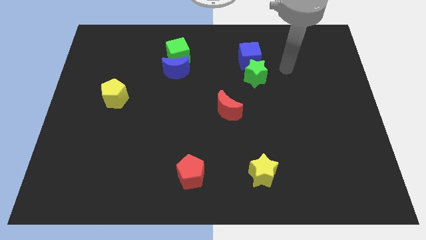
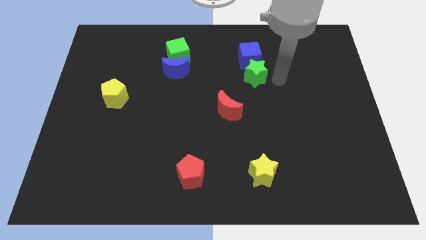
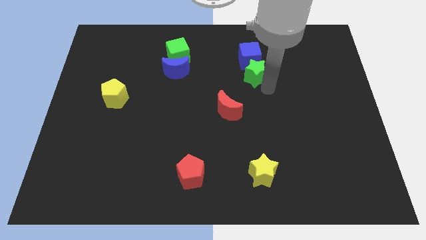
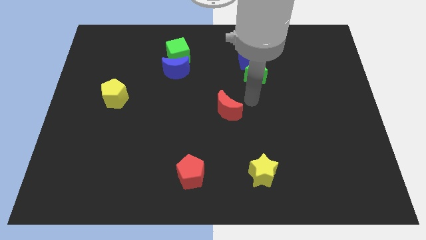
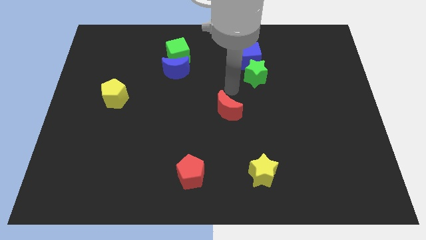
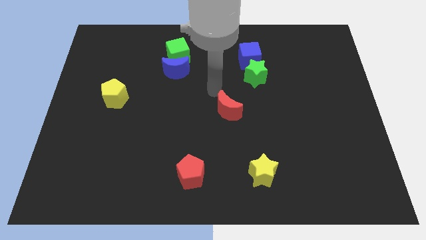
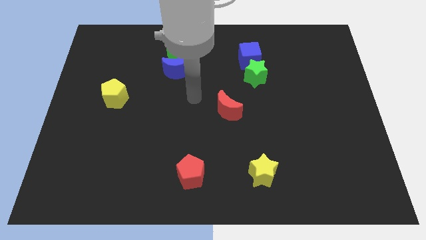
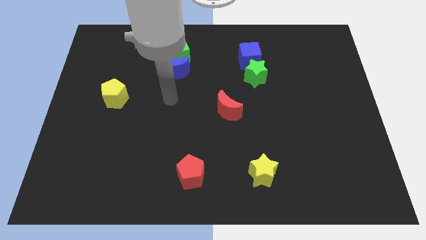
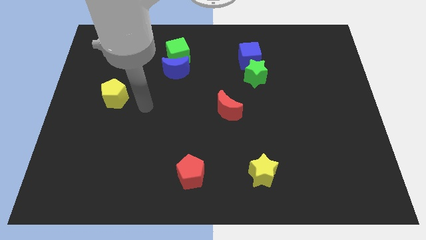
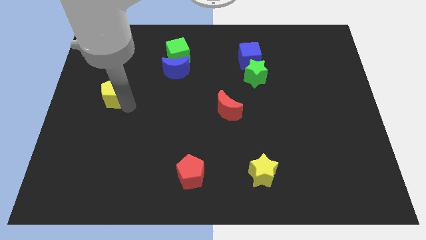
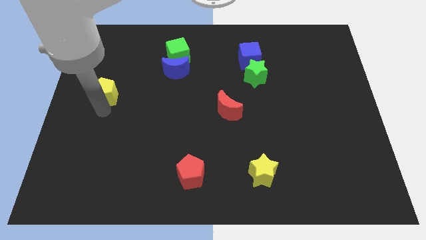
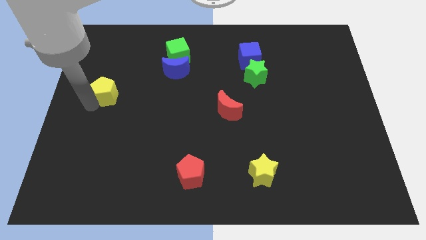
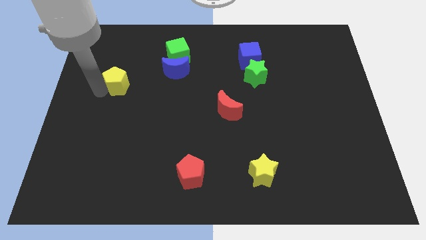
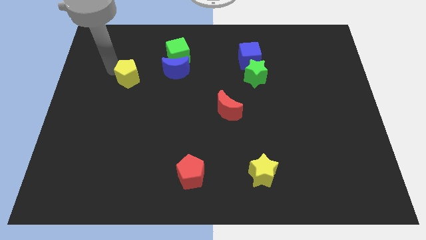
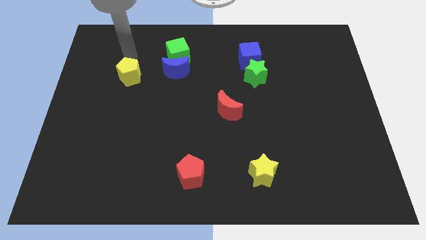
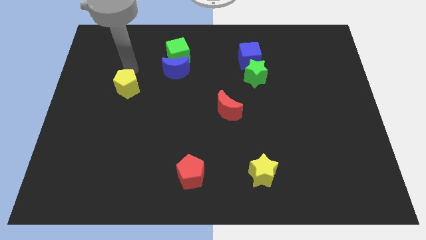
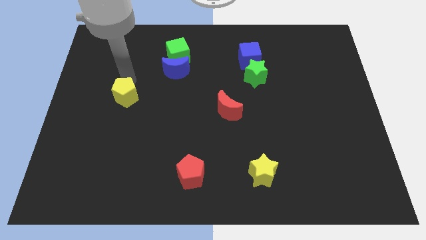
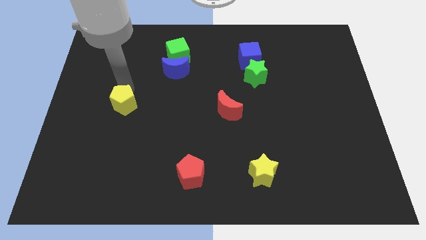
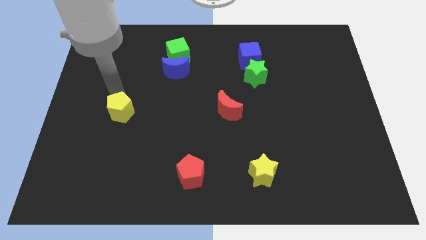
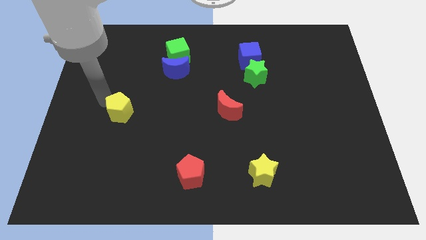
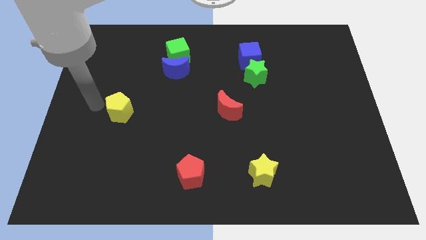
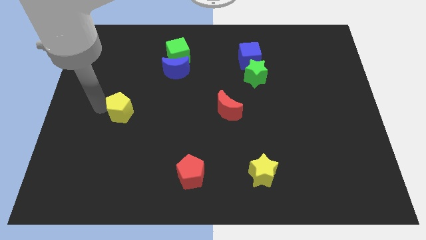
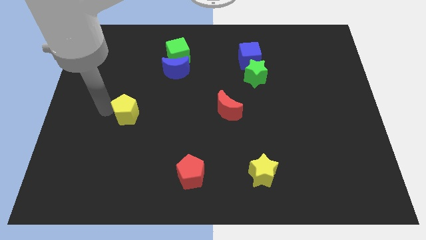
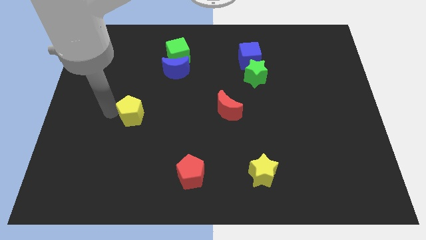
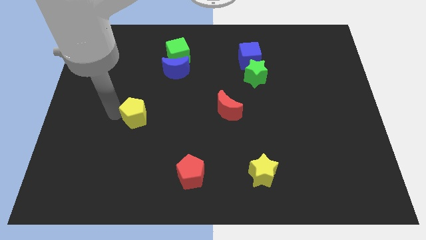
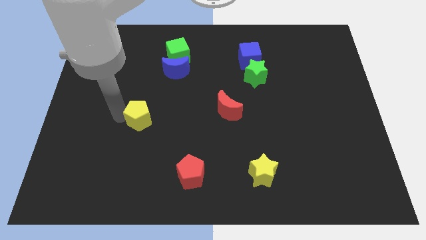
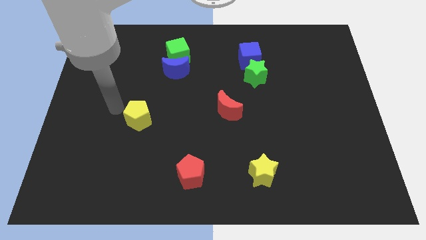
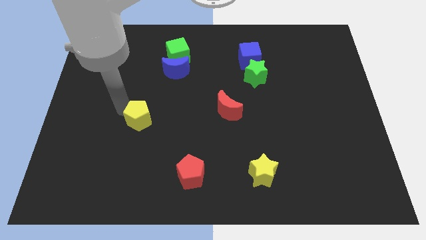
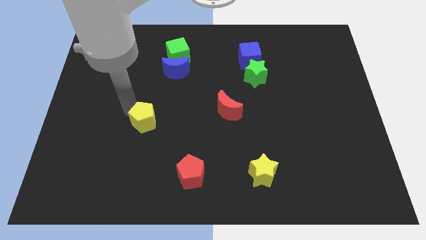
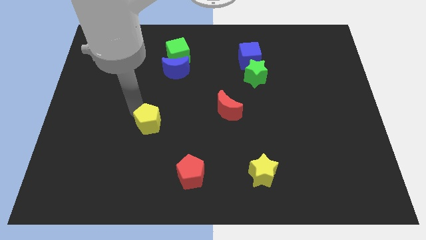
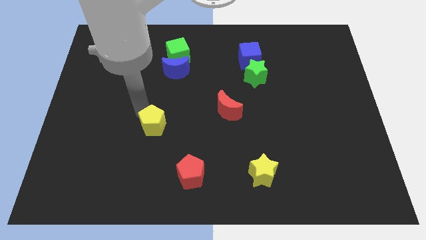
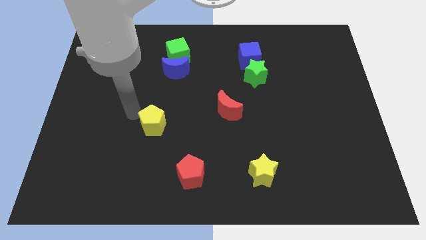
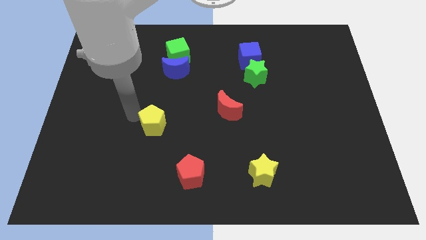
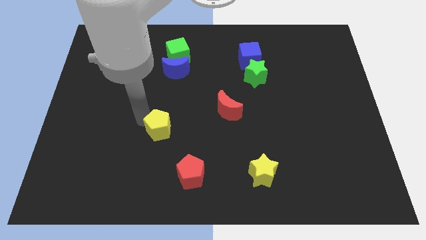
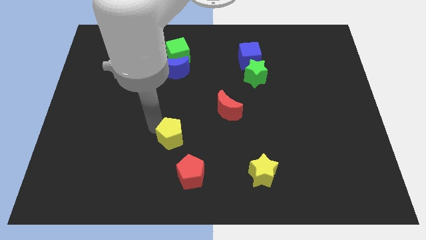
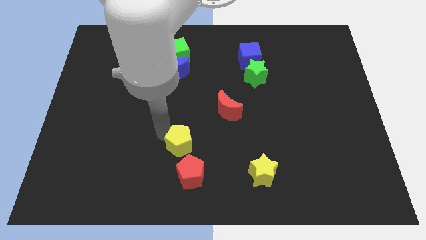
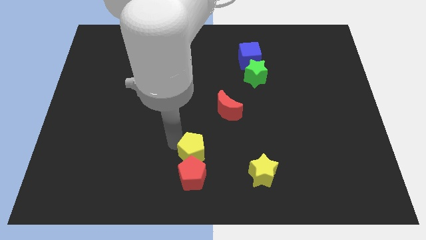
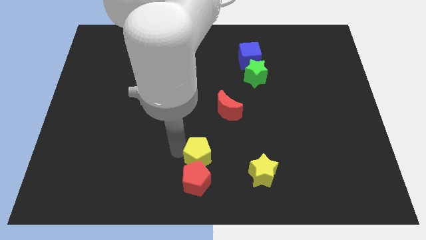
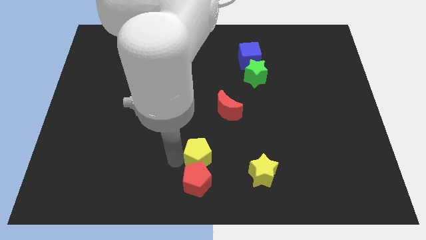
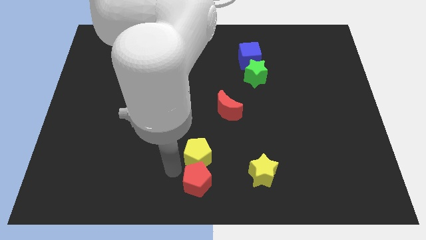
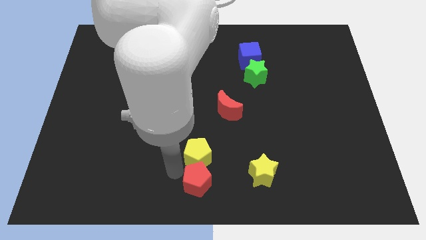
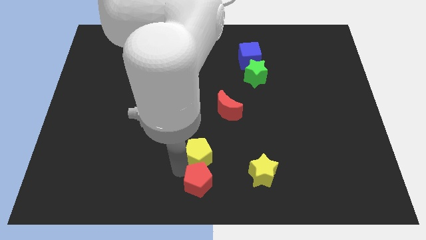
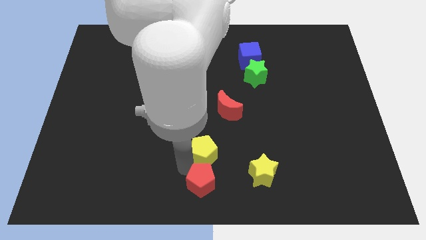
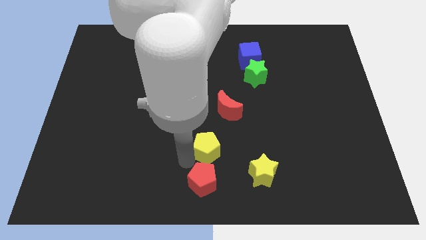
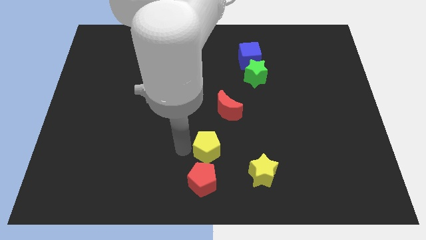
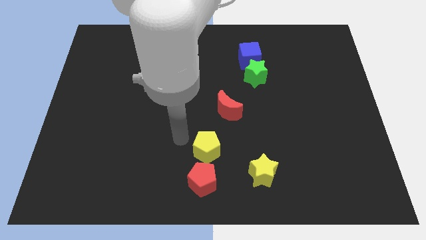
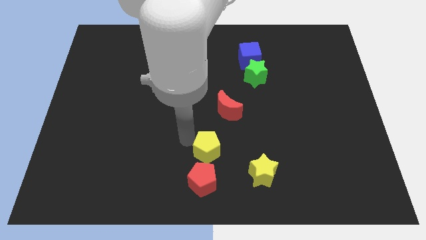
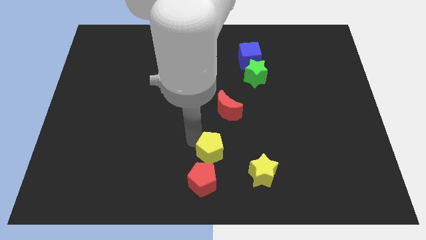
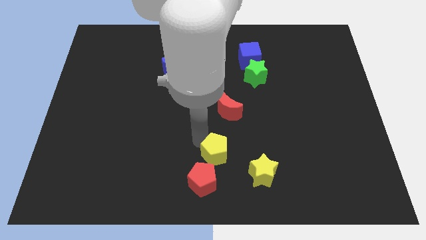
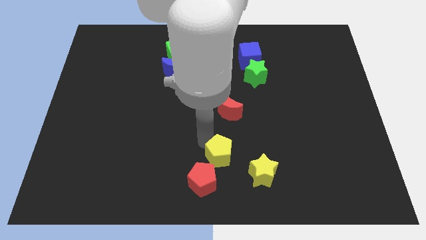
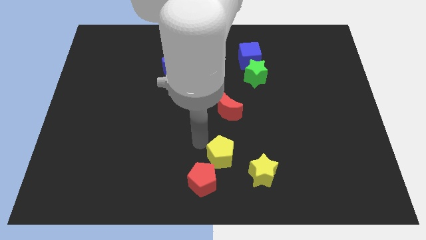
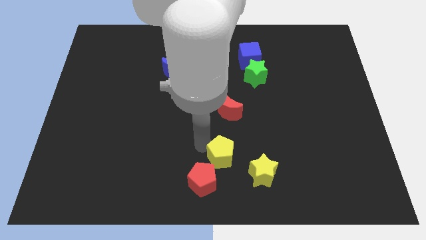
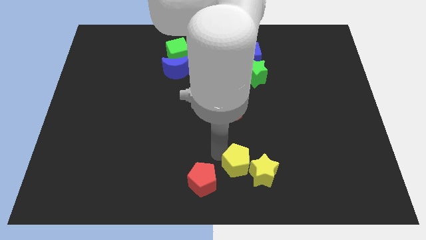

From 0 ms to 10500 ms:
put the yellow pentagon to the yellow star

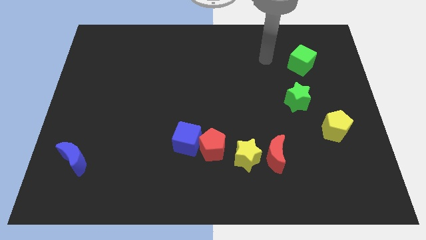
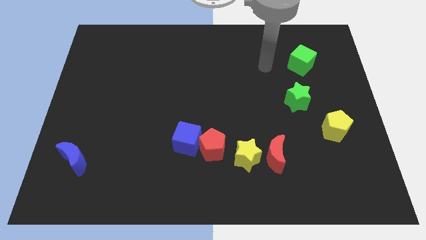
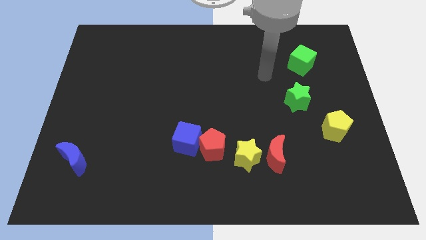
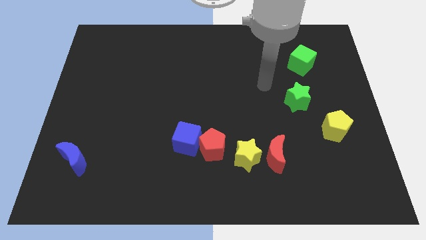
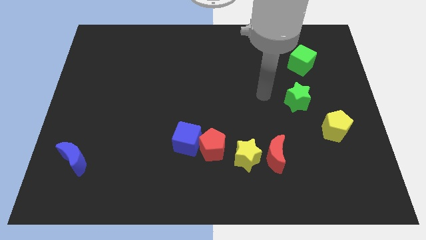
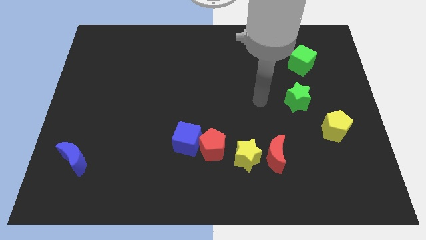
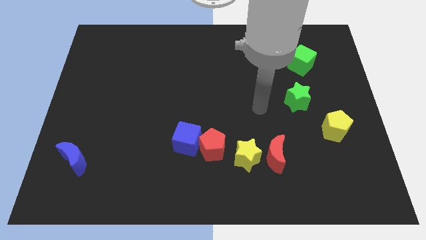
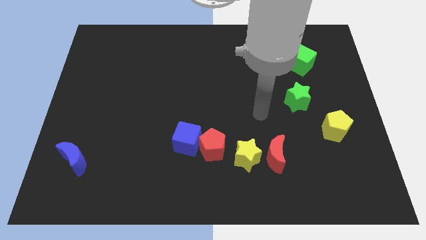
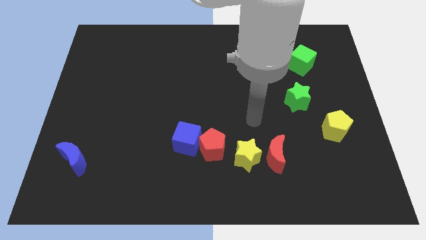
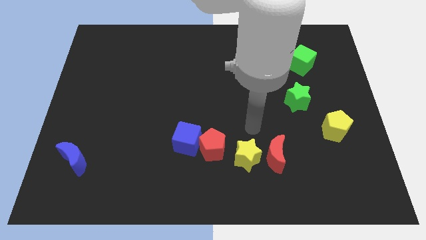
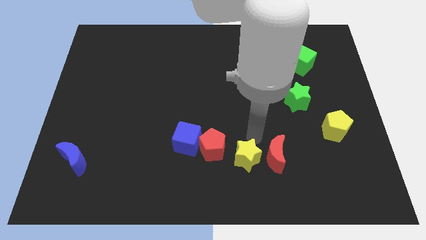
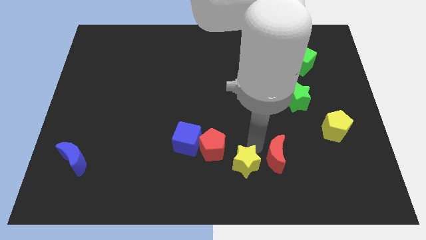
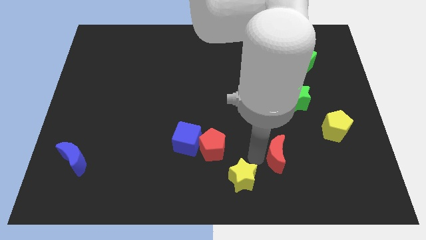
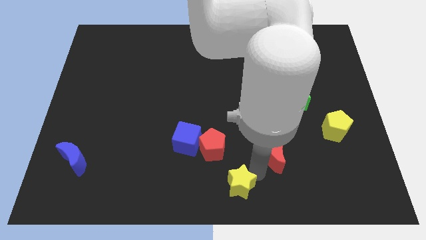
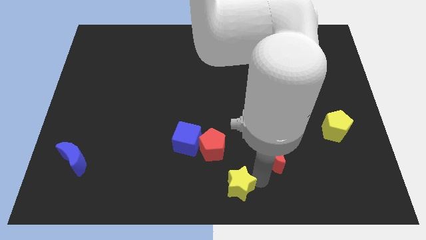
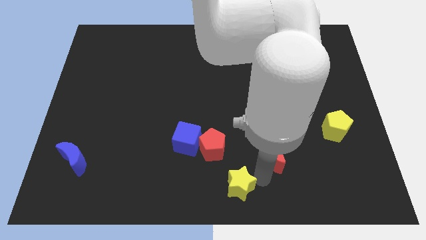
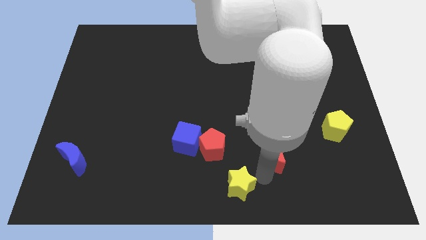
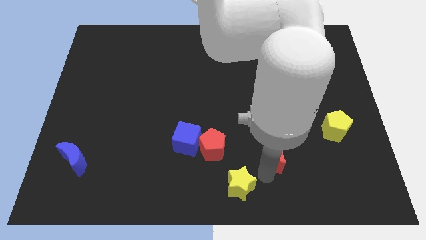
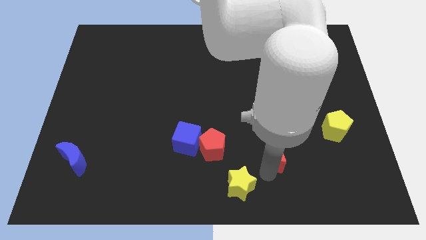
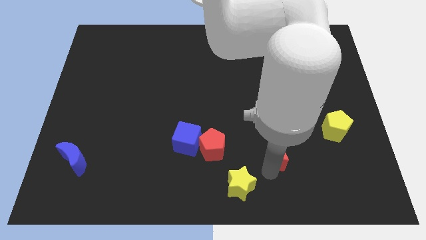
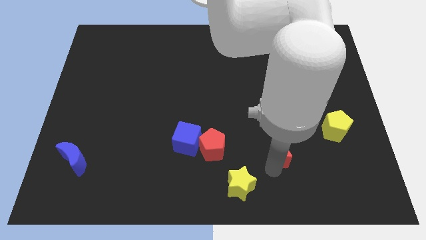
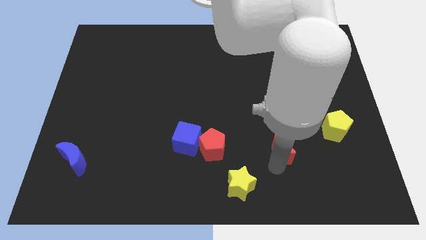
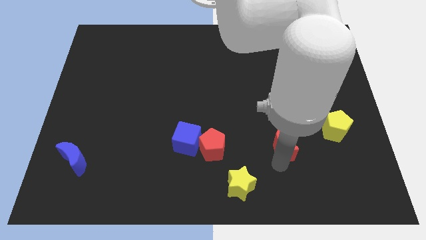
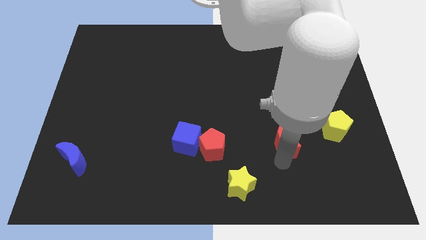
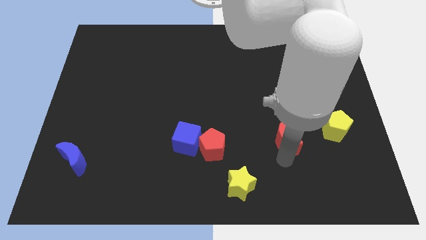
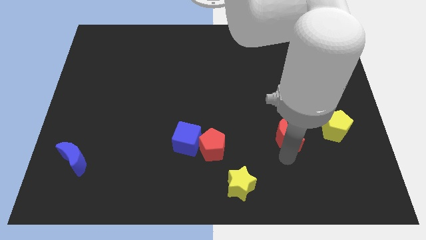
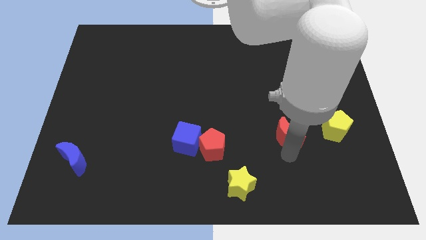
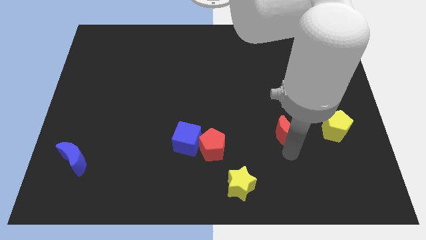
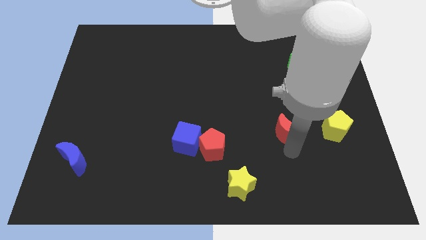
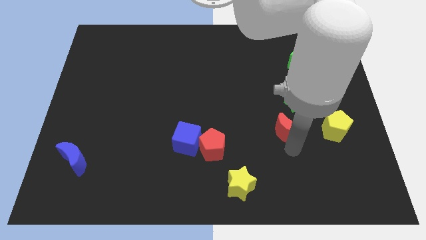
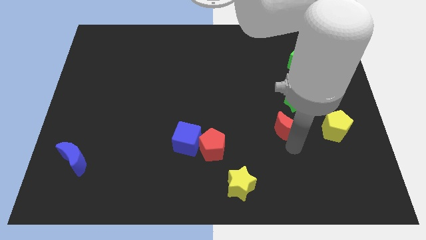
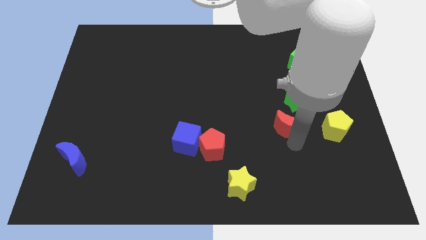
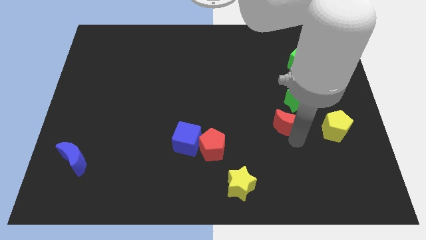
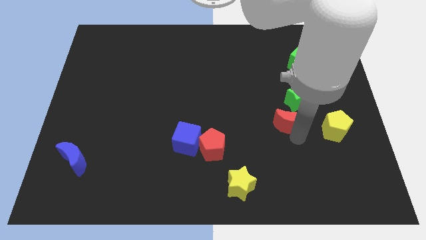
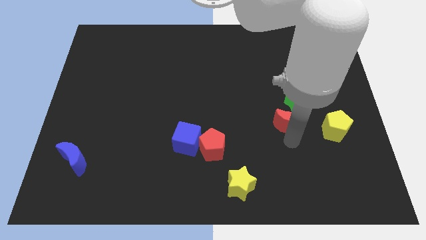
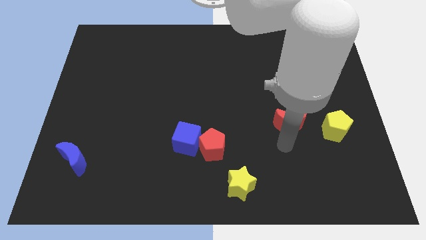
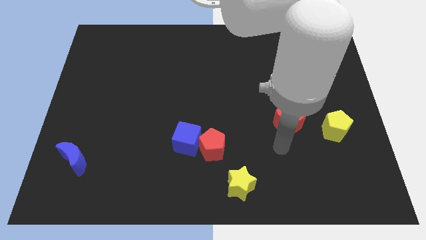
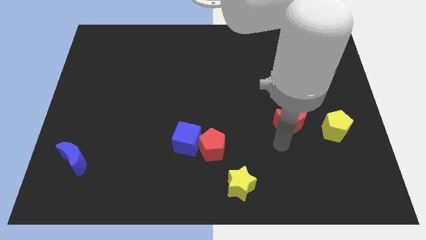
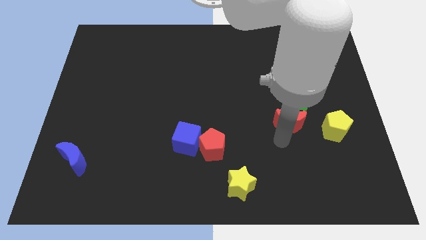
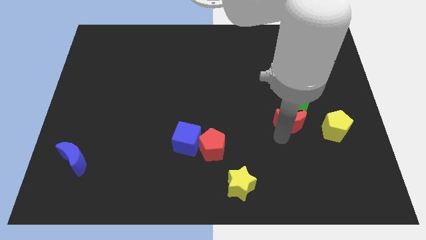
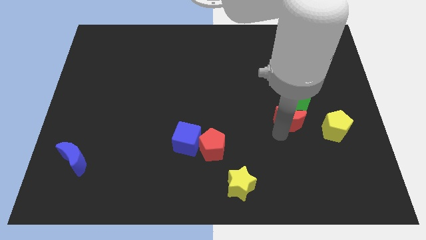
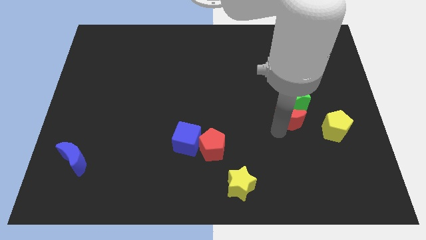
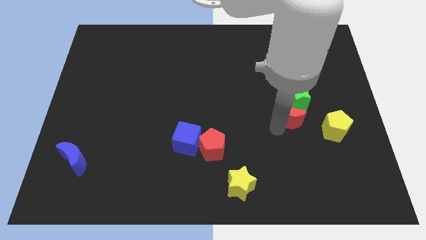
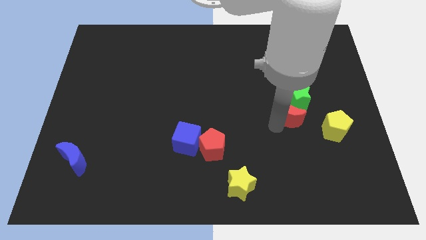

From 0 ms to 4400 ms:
slide the red moon next to the green star
